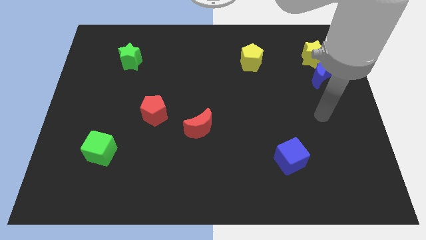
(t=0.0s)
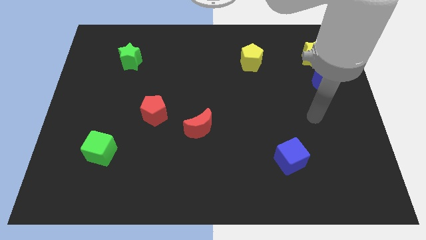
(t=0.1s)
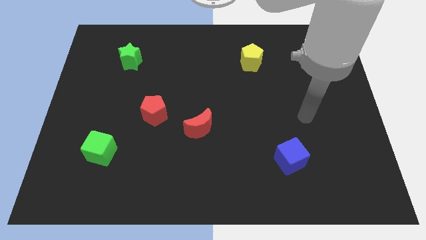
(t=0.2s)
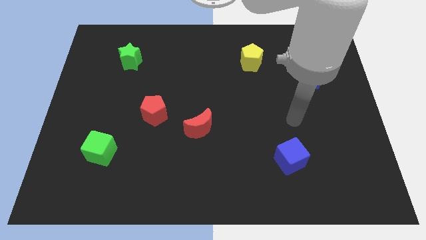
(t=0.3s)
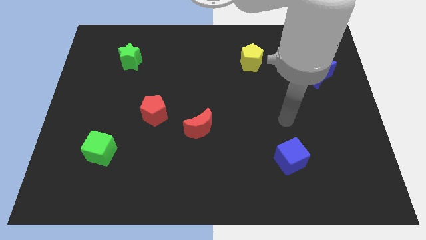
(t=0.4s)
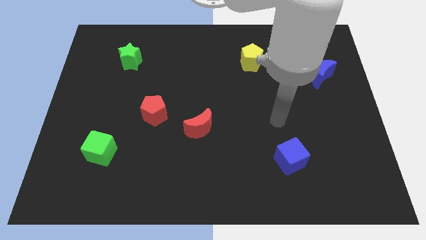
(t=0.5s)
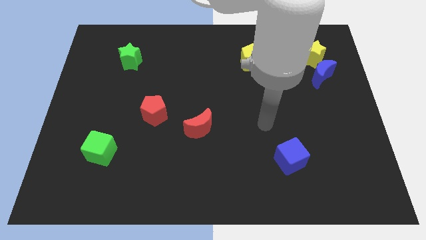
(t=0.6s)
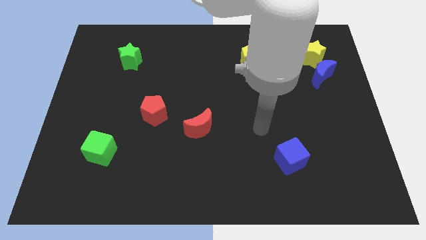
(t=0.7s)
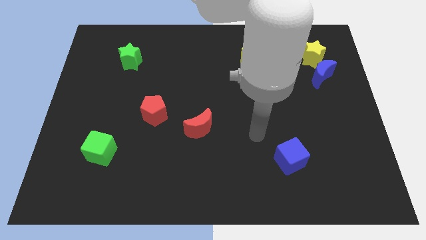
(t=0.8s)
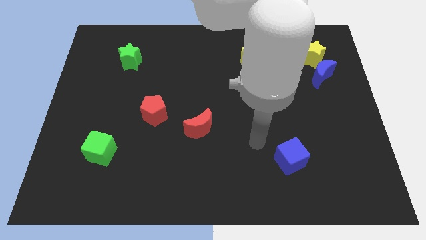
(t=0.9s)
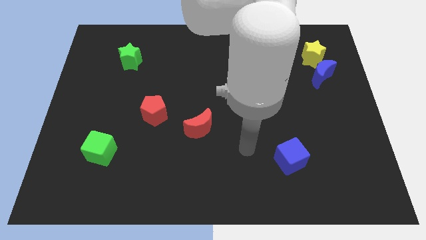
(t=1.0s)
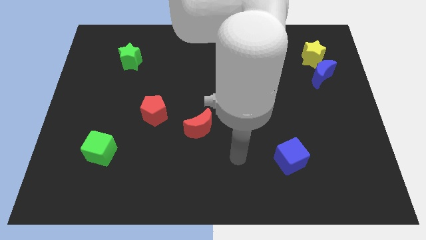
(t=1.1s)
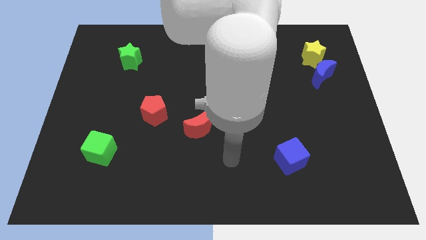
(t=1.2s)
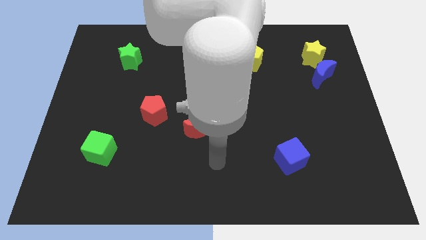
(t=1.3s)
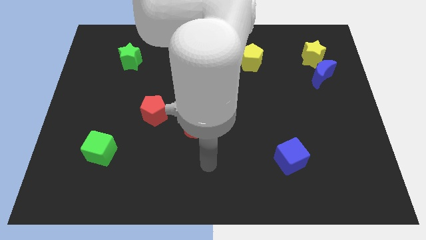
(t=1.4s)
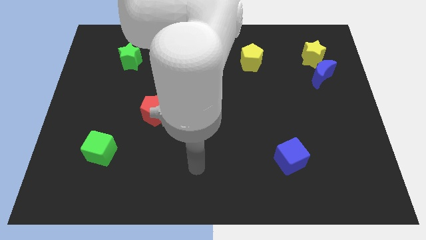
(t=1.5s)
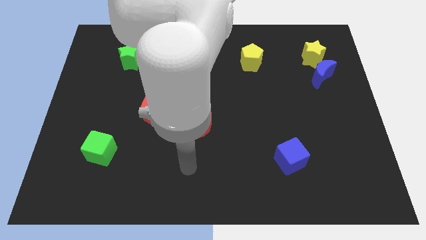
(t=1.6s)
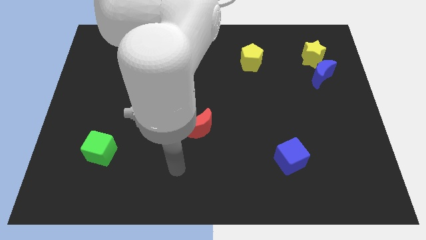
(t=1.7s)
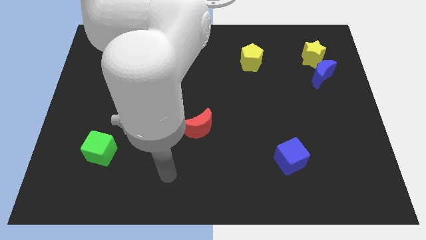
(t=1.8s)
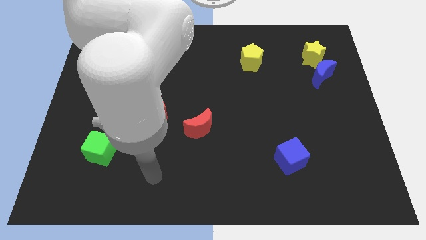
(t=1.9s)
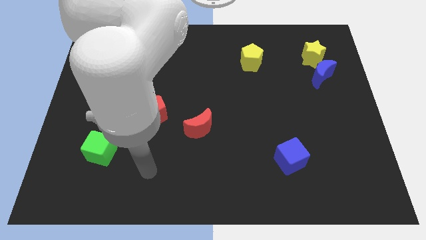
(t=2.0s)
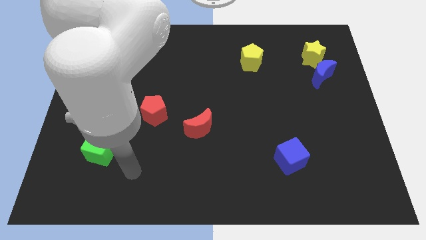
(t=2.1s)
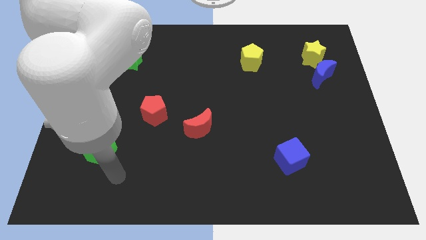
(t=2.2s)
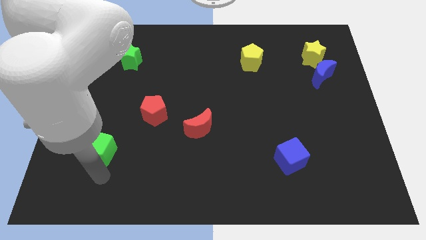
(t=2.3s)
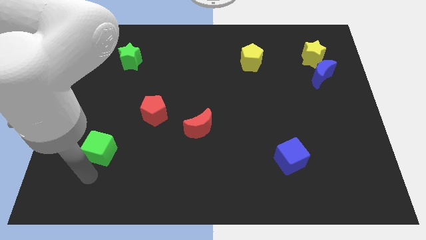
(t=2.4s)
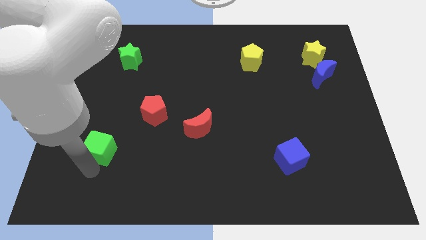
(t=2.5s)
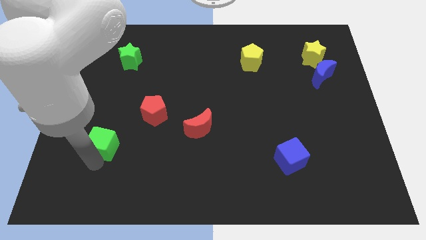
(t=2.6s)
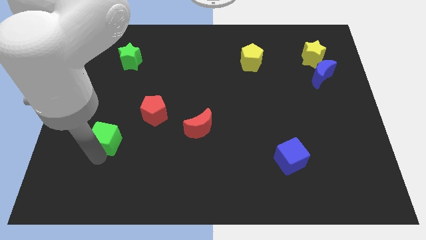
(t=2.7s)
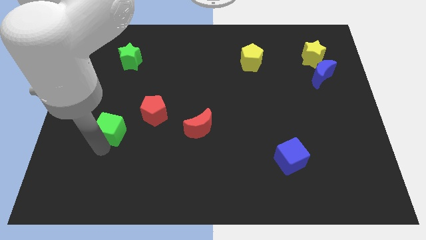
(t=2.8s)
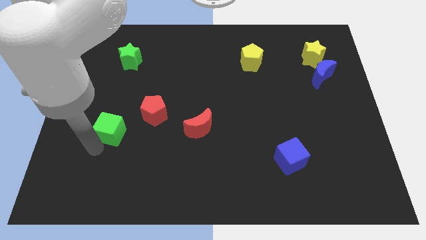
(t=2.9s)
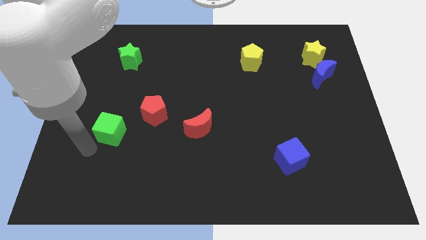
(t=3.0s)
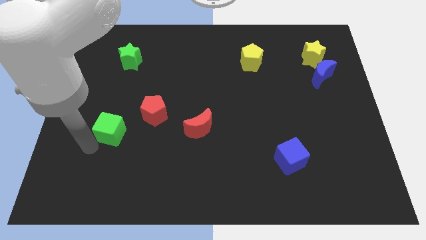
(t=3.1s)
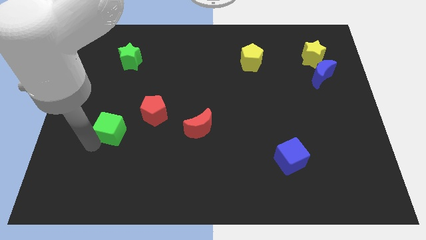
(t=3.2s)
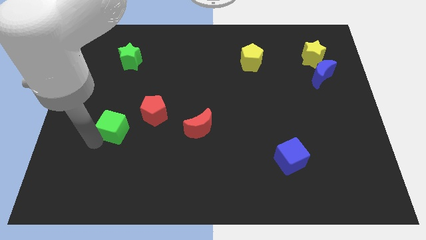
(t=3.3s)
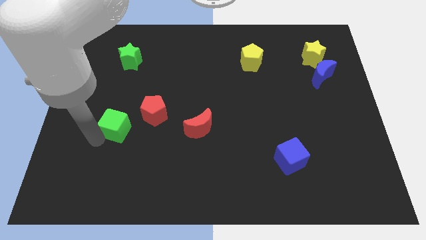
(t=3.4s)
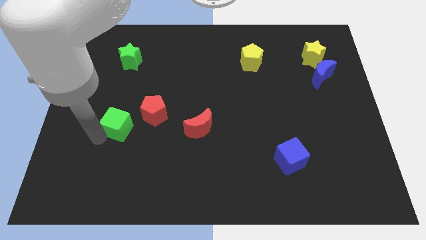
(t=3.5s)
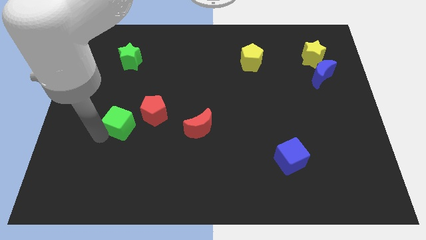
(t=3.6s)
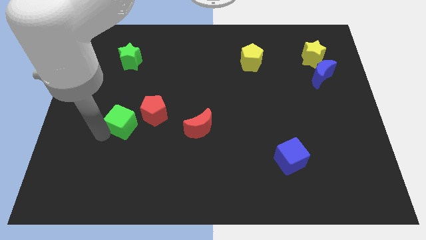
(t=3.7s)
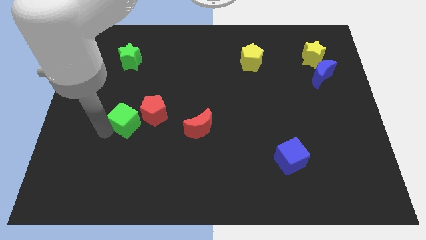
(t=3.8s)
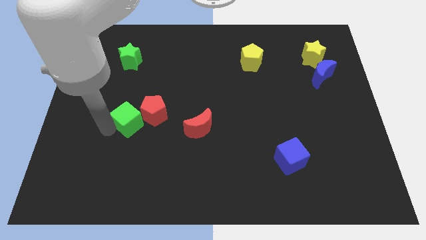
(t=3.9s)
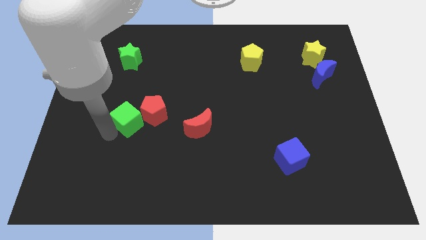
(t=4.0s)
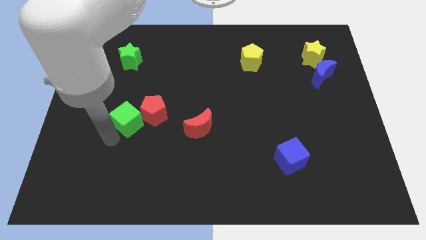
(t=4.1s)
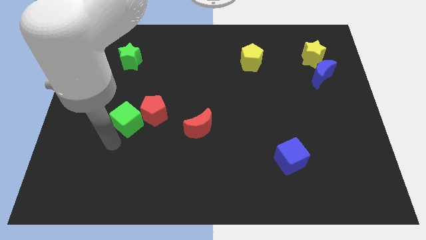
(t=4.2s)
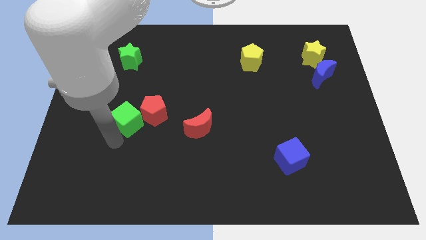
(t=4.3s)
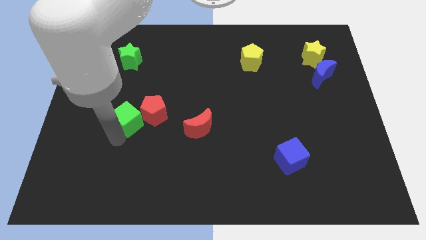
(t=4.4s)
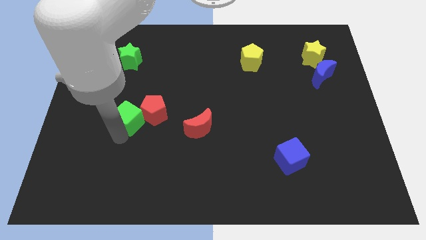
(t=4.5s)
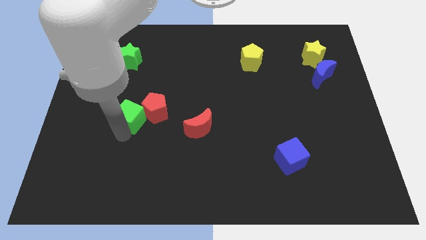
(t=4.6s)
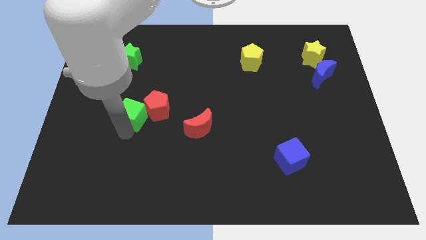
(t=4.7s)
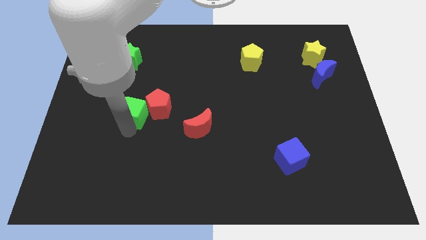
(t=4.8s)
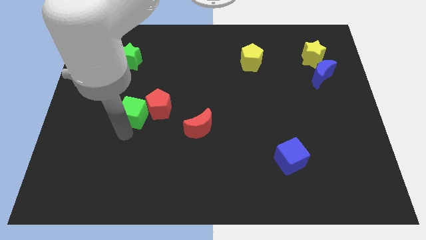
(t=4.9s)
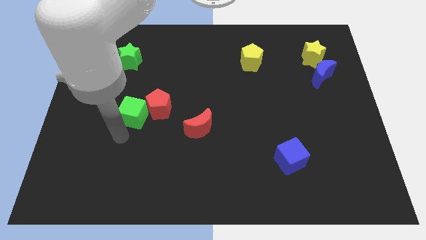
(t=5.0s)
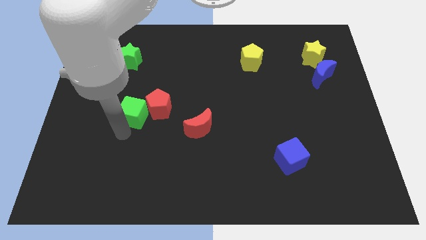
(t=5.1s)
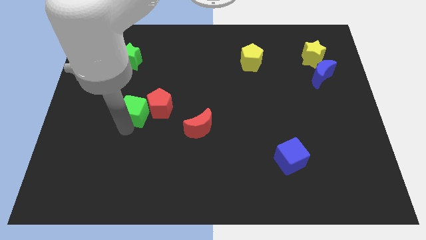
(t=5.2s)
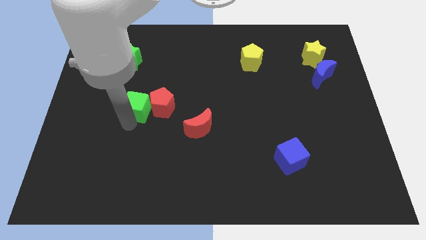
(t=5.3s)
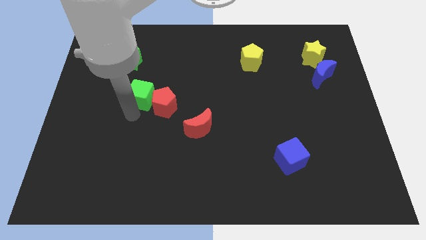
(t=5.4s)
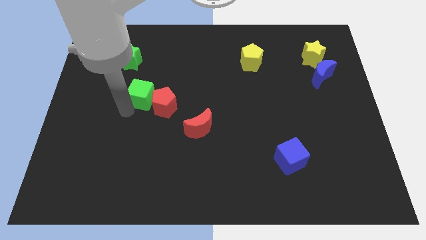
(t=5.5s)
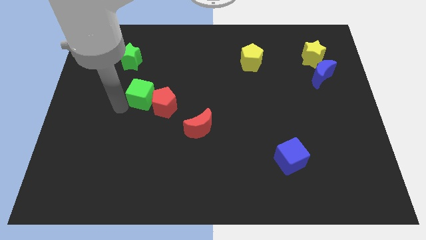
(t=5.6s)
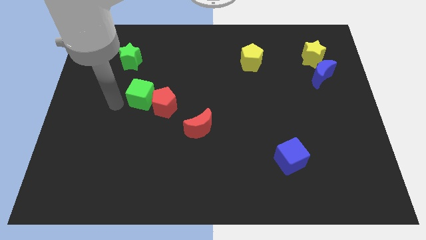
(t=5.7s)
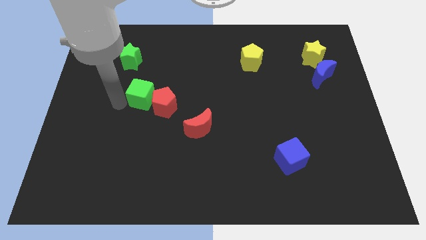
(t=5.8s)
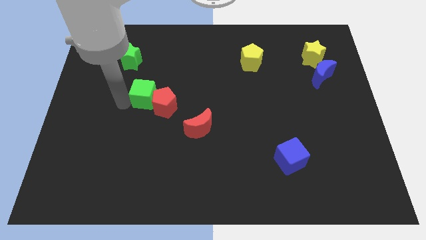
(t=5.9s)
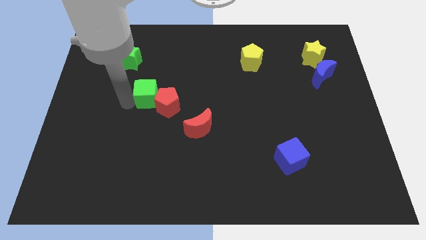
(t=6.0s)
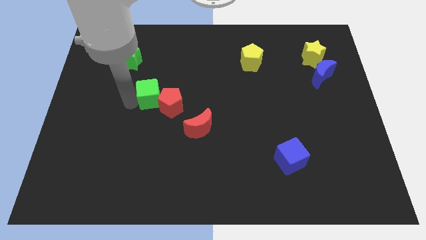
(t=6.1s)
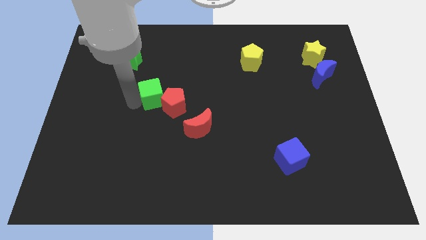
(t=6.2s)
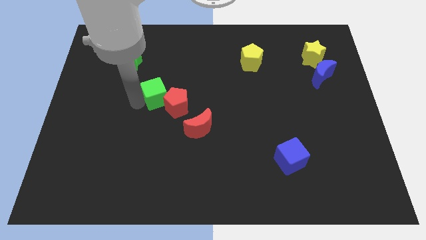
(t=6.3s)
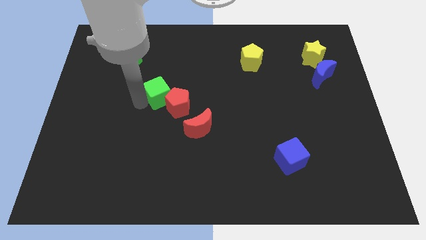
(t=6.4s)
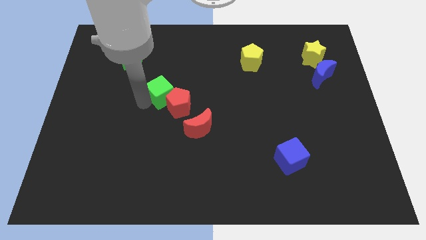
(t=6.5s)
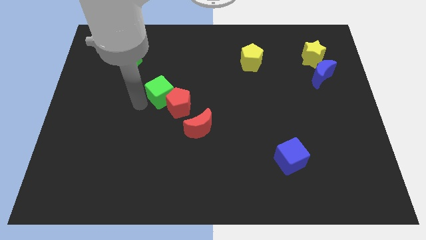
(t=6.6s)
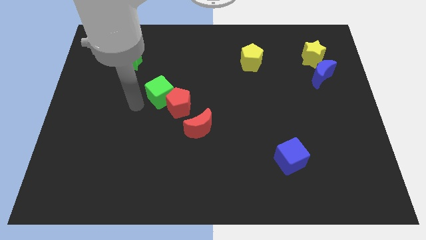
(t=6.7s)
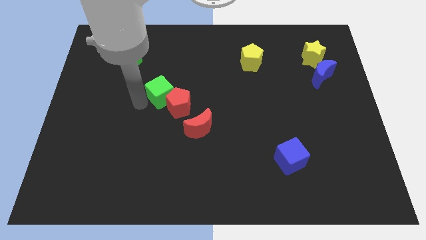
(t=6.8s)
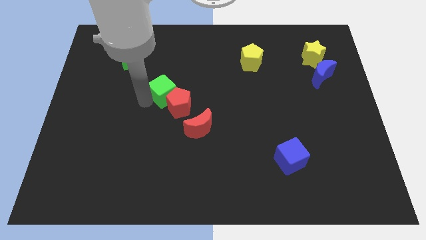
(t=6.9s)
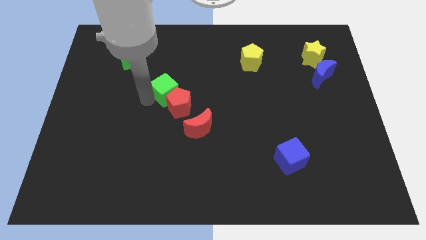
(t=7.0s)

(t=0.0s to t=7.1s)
push the green cube upwards and then right

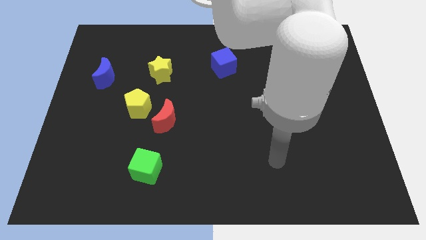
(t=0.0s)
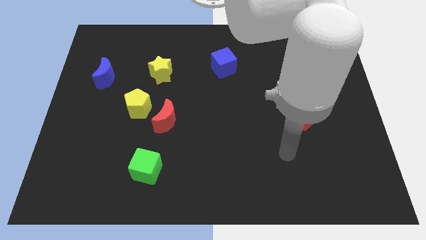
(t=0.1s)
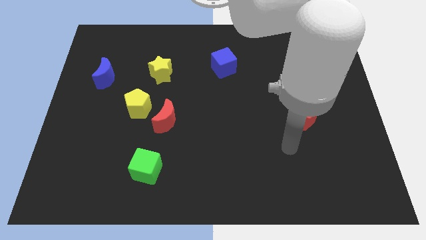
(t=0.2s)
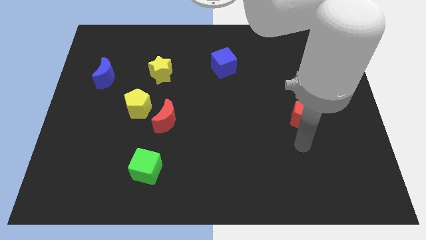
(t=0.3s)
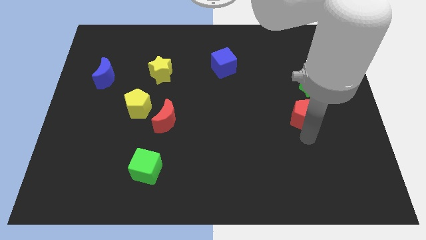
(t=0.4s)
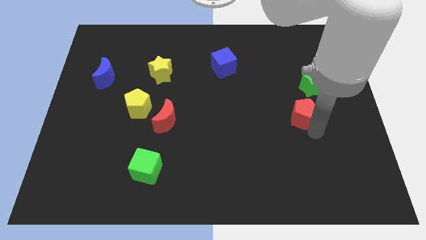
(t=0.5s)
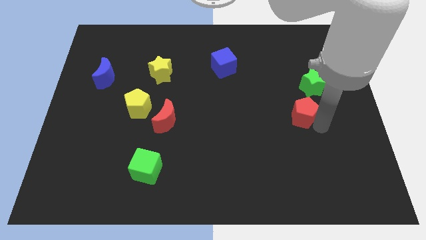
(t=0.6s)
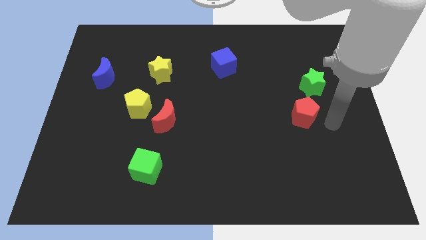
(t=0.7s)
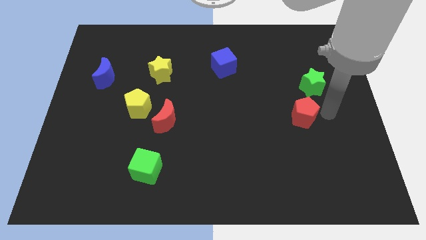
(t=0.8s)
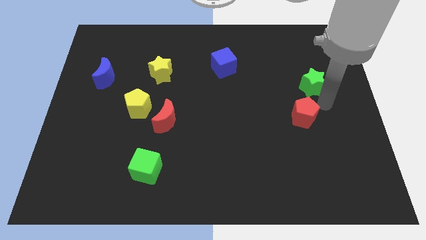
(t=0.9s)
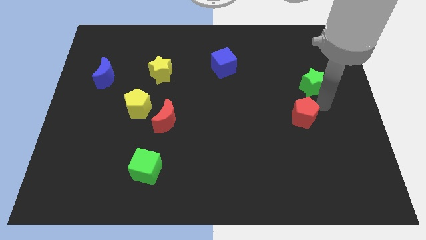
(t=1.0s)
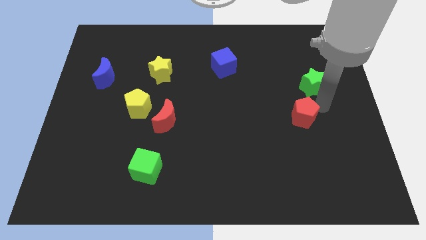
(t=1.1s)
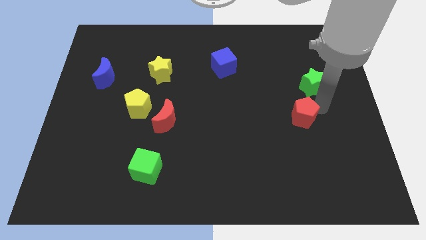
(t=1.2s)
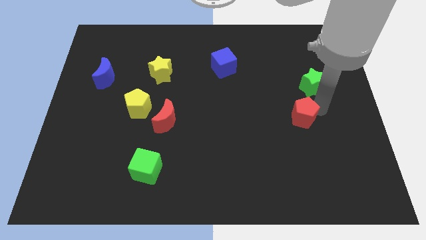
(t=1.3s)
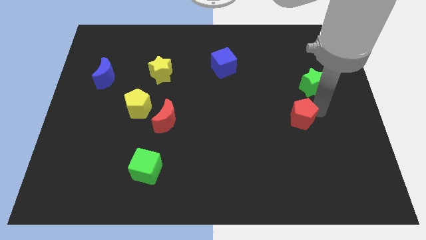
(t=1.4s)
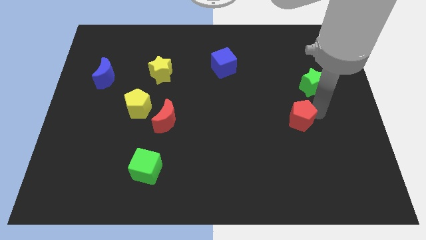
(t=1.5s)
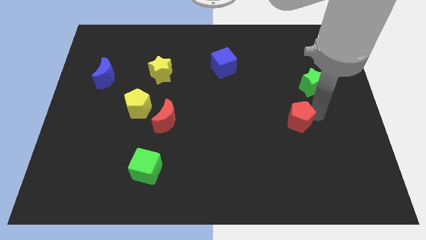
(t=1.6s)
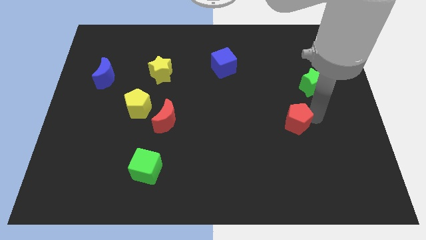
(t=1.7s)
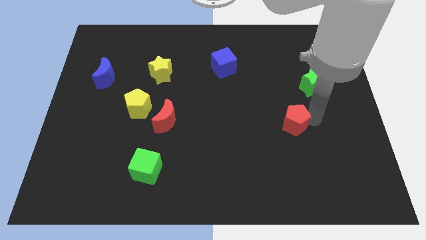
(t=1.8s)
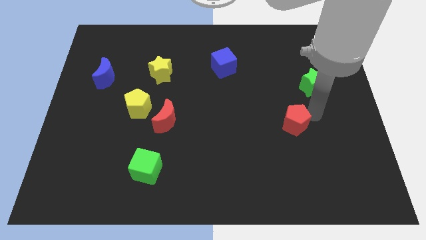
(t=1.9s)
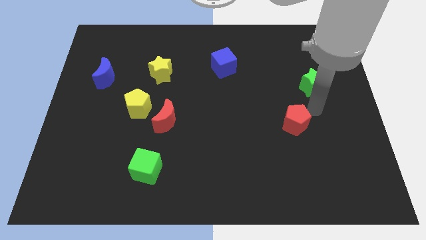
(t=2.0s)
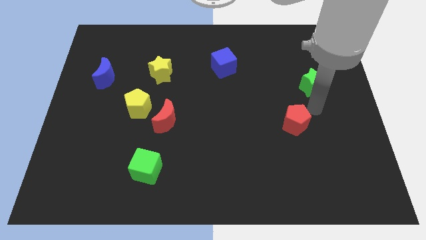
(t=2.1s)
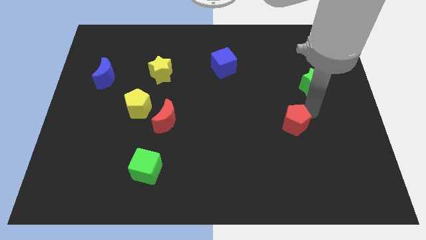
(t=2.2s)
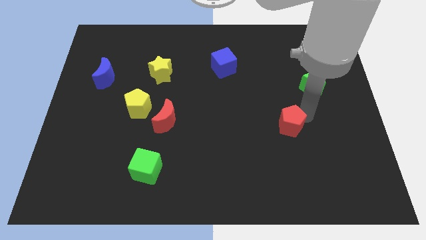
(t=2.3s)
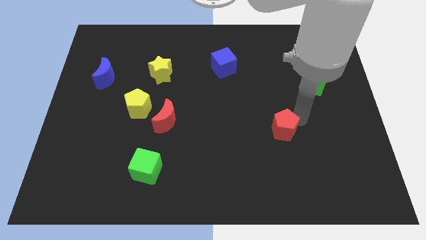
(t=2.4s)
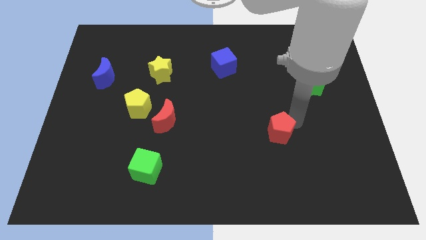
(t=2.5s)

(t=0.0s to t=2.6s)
move the red pentagon downwards and then to the left a little
